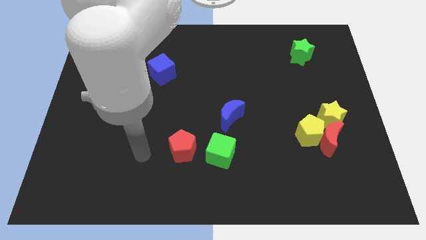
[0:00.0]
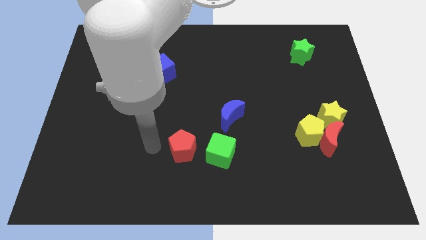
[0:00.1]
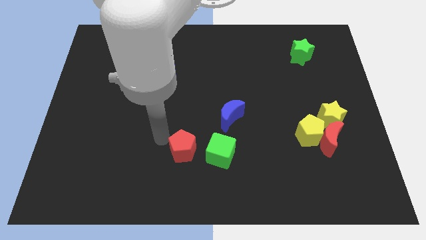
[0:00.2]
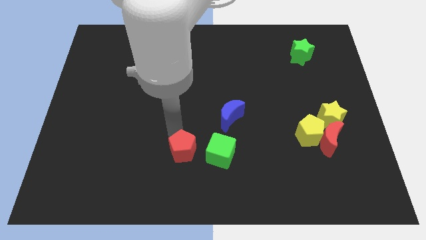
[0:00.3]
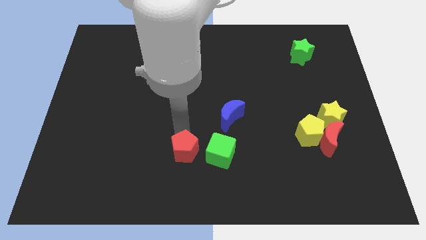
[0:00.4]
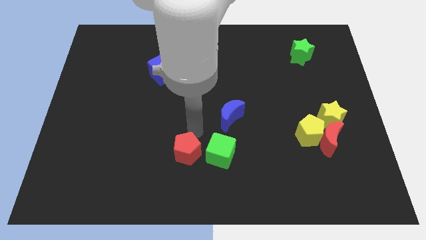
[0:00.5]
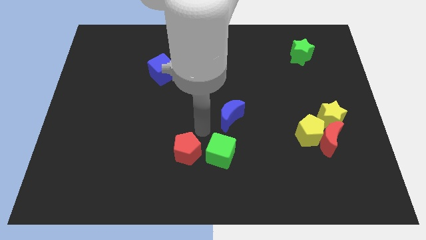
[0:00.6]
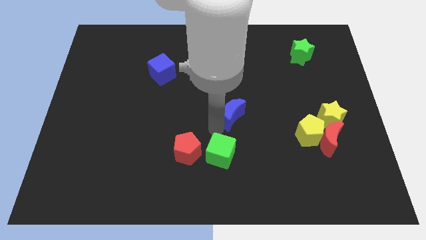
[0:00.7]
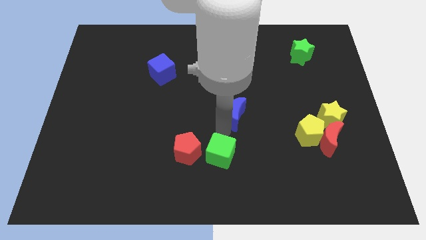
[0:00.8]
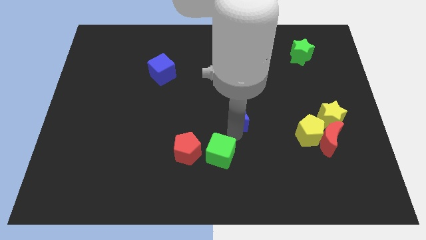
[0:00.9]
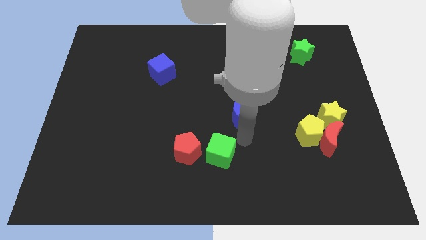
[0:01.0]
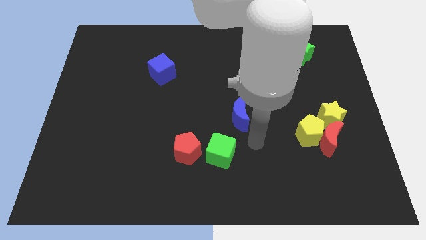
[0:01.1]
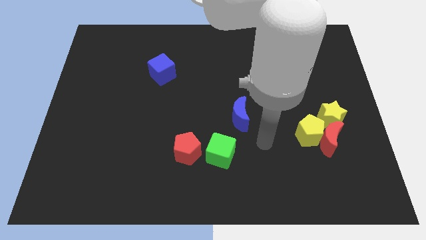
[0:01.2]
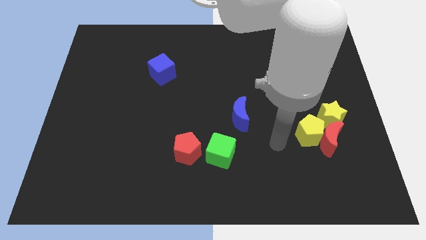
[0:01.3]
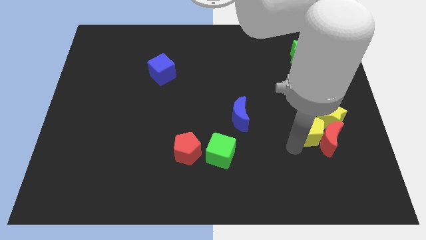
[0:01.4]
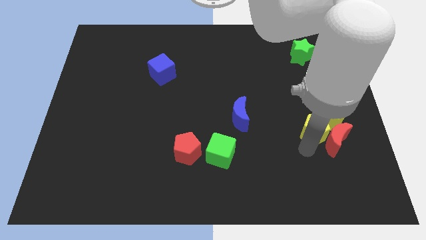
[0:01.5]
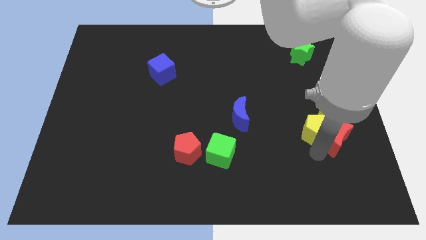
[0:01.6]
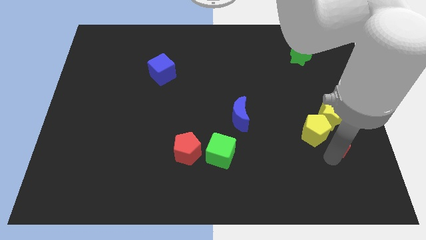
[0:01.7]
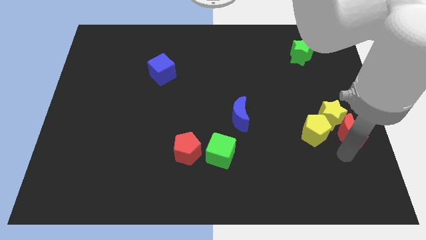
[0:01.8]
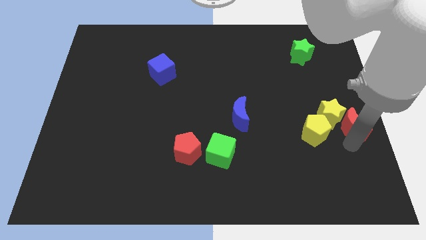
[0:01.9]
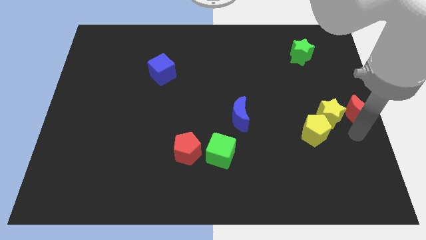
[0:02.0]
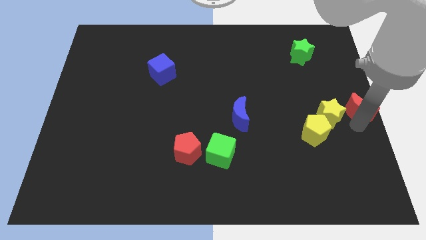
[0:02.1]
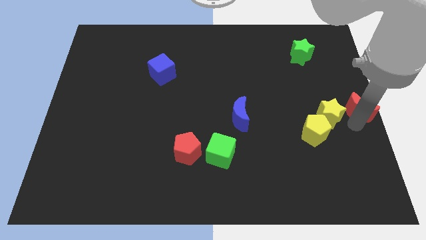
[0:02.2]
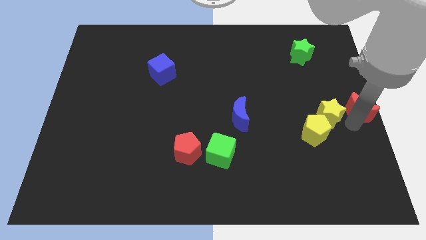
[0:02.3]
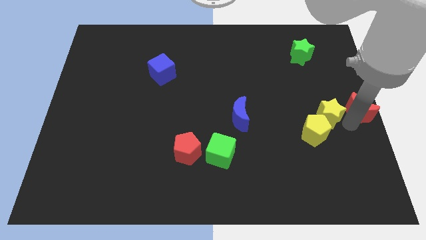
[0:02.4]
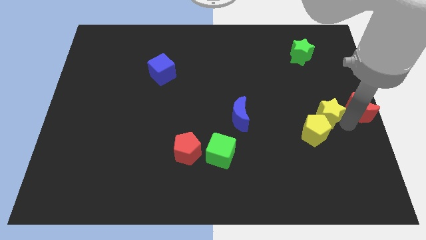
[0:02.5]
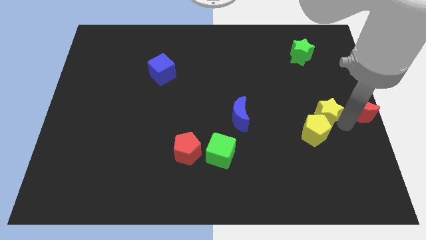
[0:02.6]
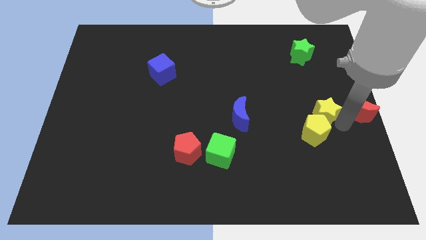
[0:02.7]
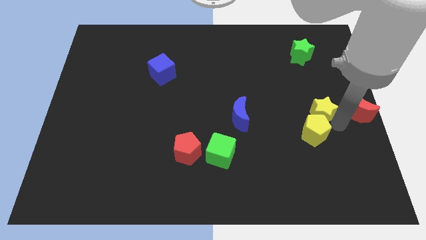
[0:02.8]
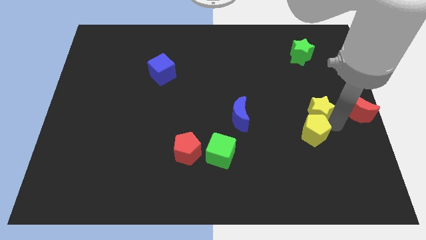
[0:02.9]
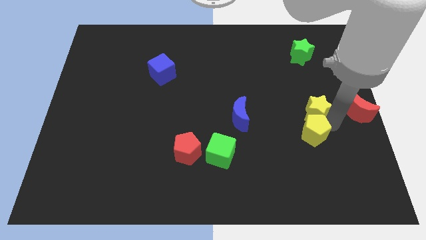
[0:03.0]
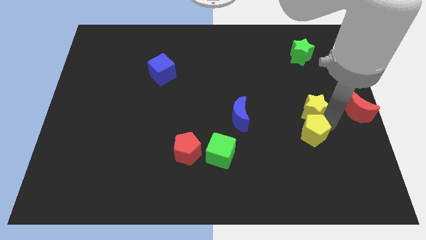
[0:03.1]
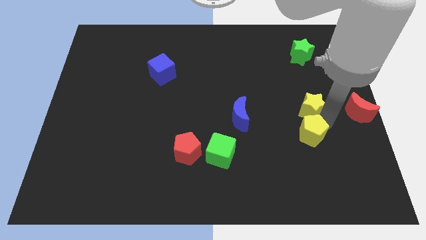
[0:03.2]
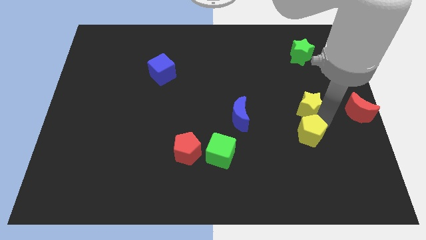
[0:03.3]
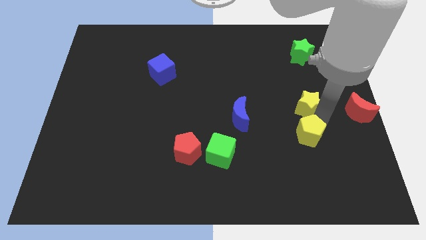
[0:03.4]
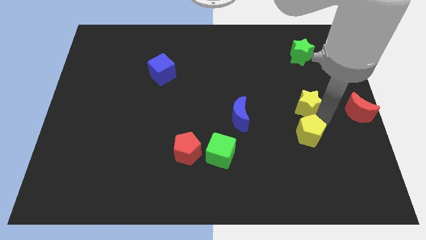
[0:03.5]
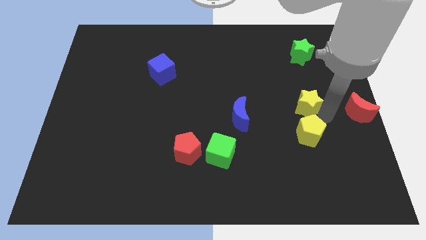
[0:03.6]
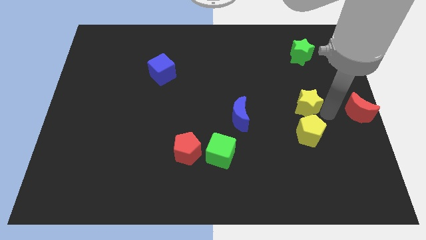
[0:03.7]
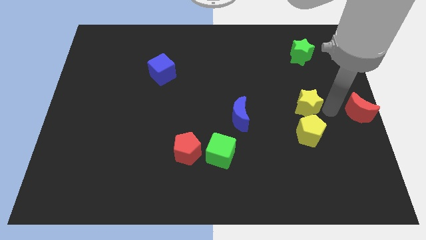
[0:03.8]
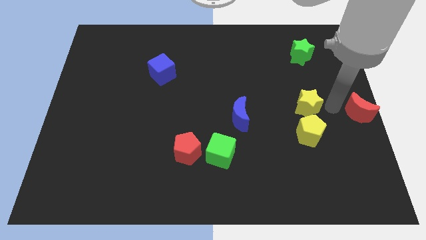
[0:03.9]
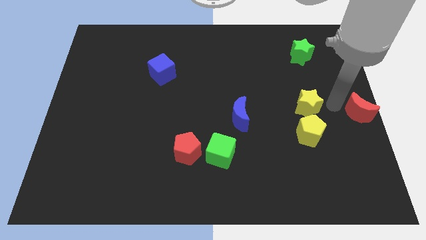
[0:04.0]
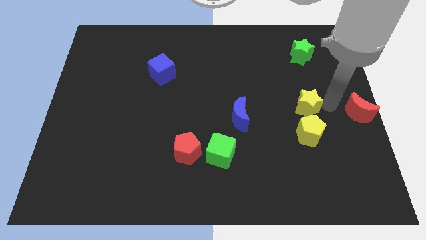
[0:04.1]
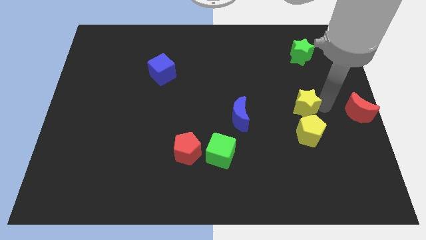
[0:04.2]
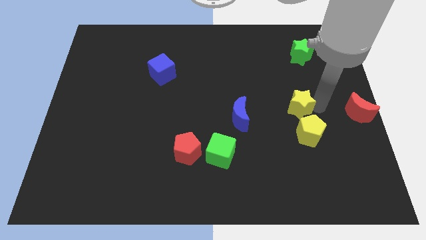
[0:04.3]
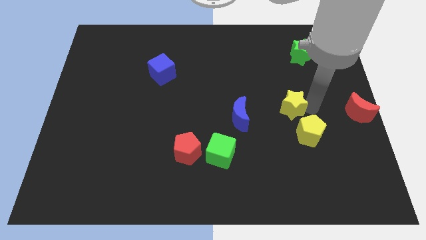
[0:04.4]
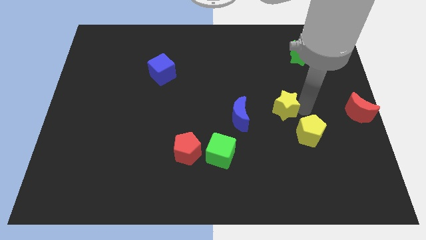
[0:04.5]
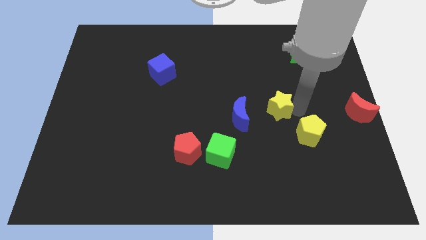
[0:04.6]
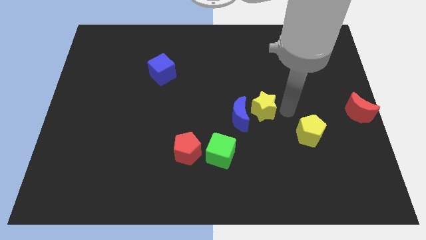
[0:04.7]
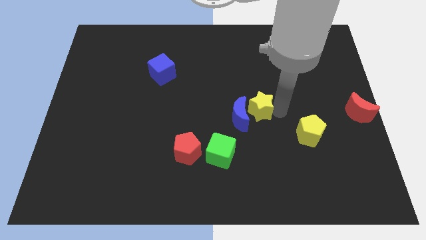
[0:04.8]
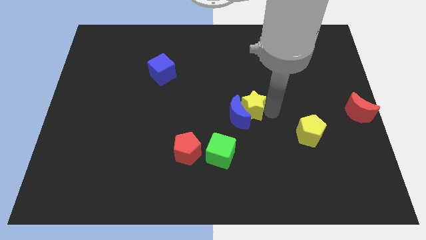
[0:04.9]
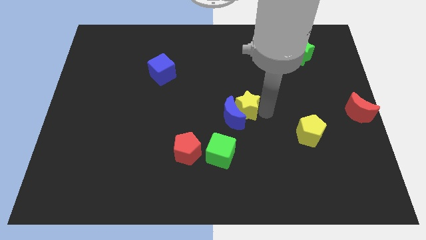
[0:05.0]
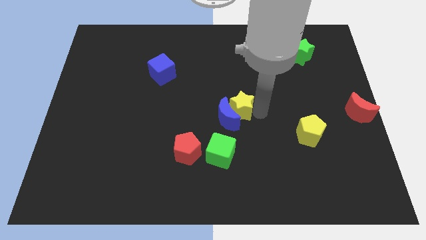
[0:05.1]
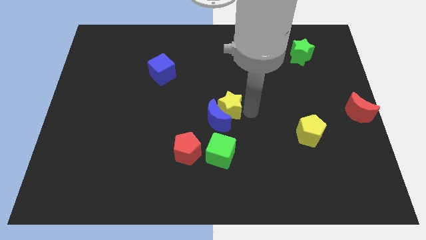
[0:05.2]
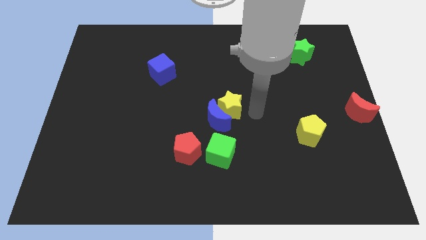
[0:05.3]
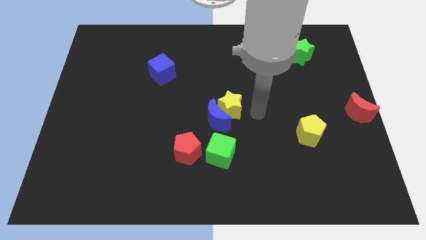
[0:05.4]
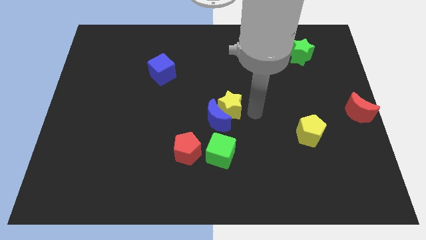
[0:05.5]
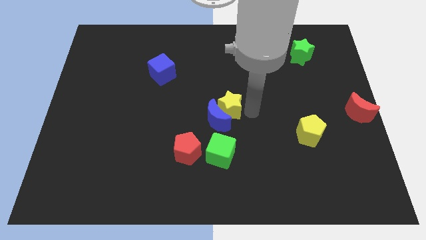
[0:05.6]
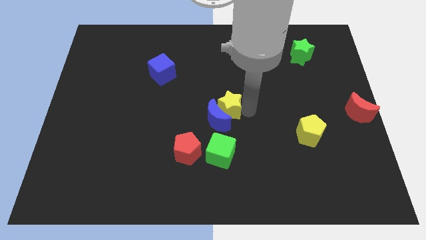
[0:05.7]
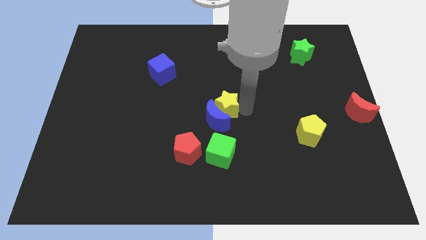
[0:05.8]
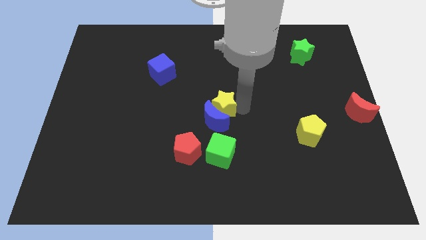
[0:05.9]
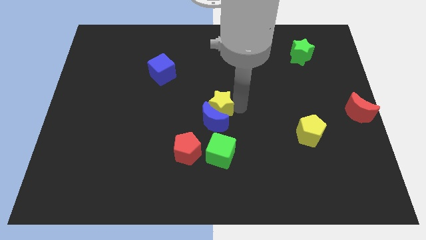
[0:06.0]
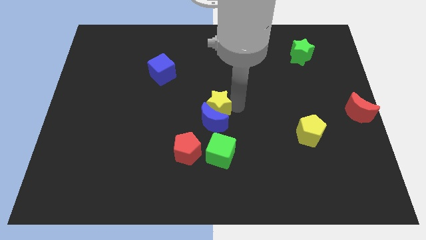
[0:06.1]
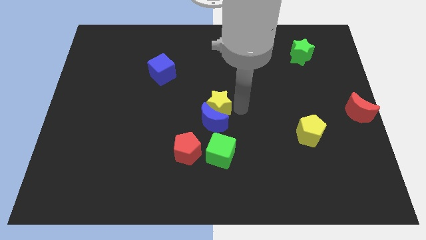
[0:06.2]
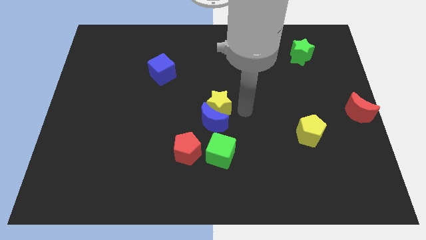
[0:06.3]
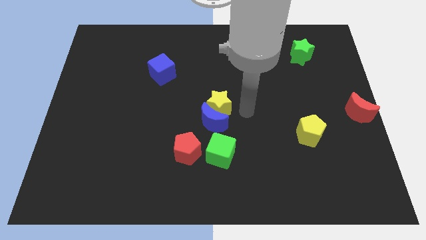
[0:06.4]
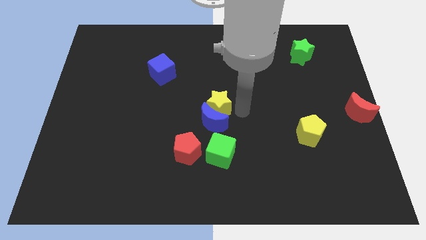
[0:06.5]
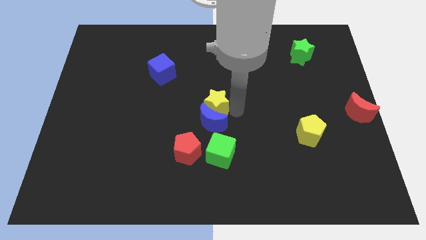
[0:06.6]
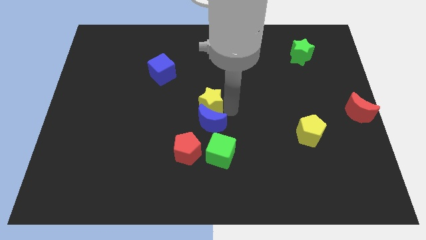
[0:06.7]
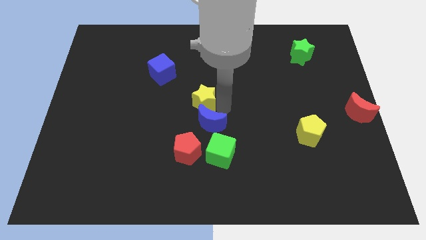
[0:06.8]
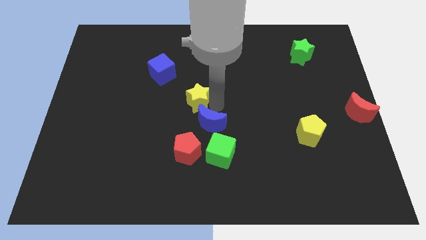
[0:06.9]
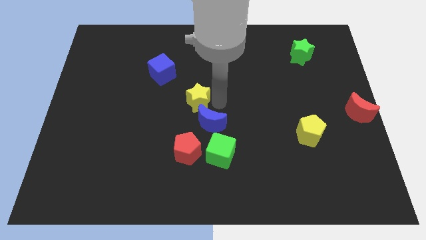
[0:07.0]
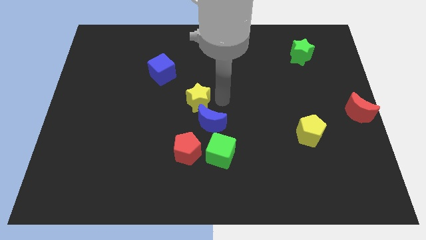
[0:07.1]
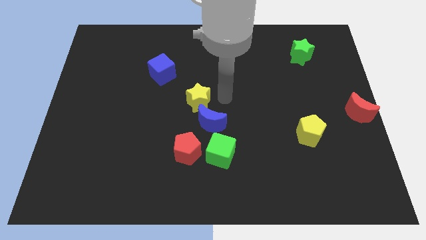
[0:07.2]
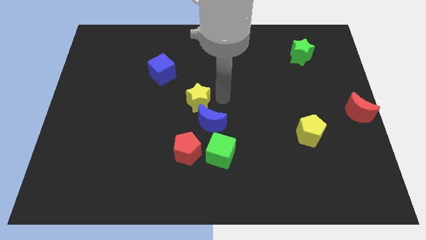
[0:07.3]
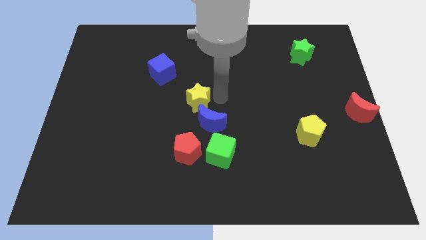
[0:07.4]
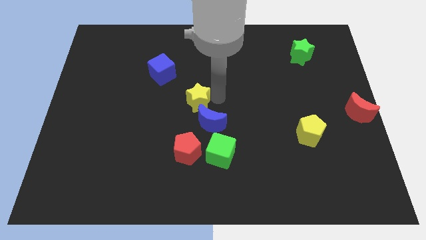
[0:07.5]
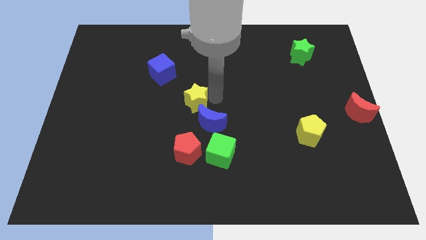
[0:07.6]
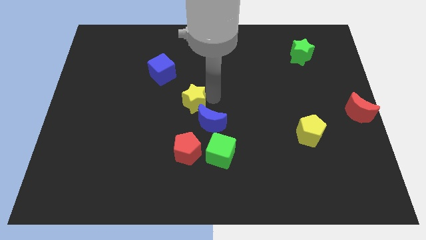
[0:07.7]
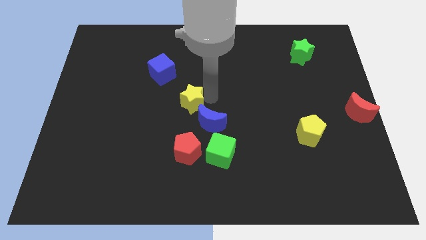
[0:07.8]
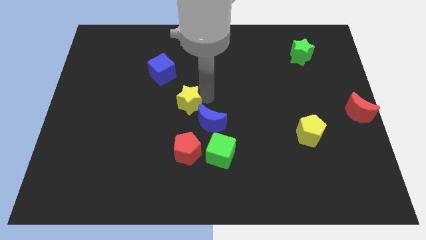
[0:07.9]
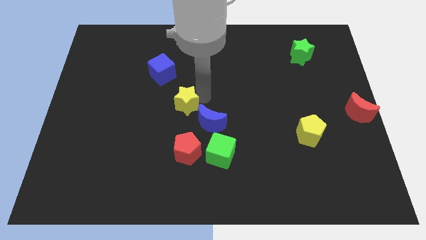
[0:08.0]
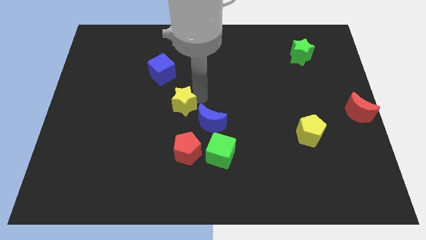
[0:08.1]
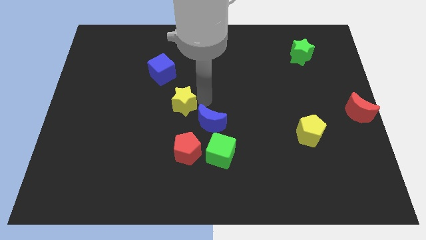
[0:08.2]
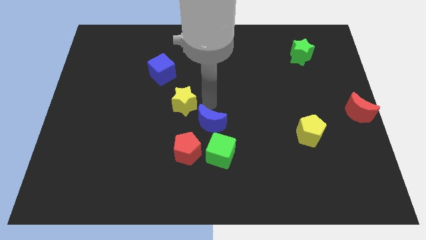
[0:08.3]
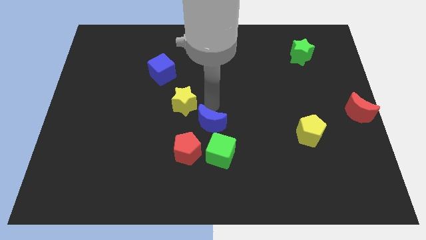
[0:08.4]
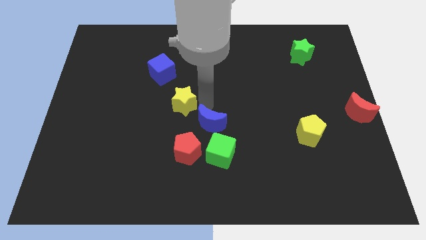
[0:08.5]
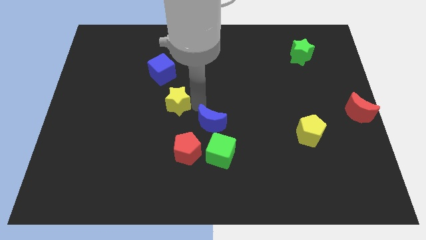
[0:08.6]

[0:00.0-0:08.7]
push the yellow star to the bottom side of the blue cube
